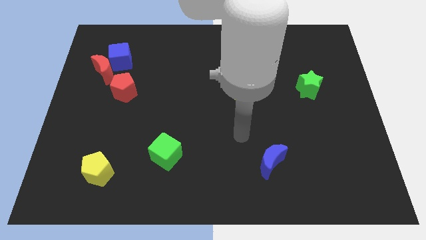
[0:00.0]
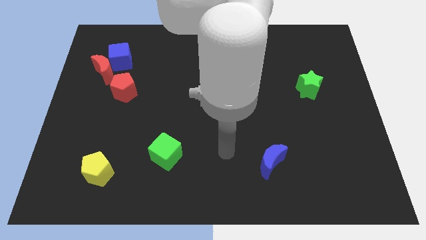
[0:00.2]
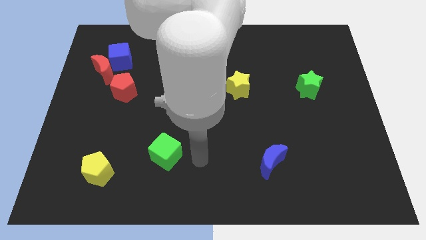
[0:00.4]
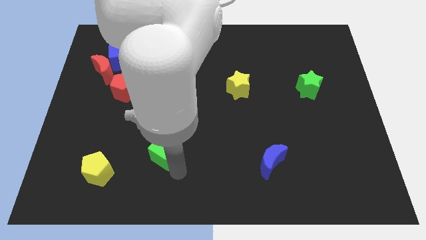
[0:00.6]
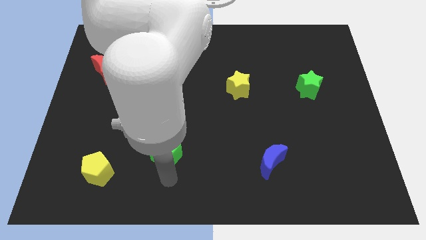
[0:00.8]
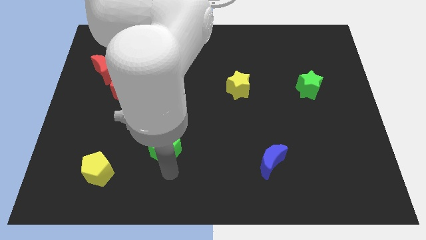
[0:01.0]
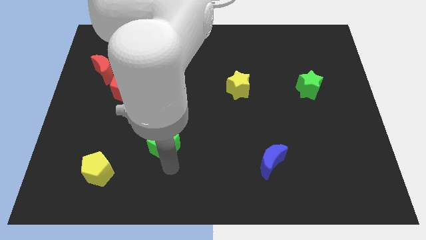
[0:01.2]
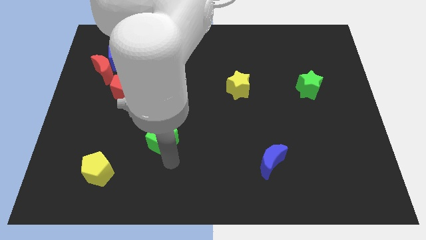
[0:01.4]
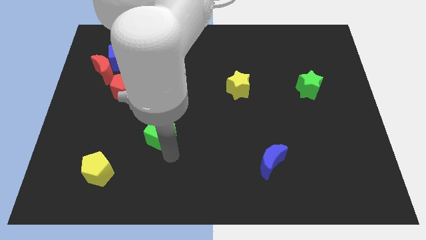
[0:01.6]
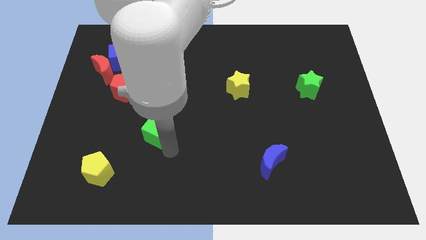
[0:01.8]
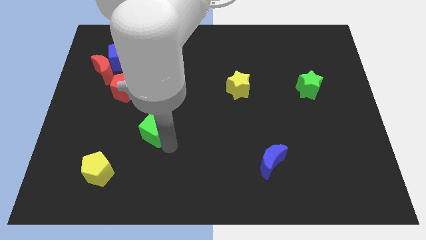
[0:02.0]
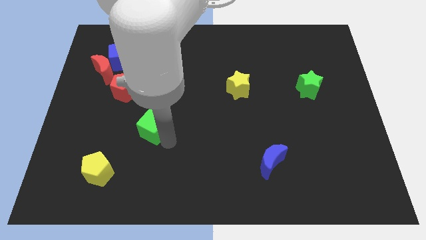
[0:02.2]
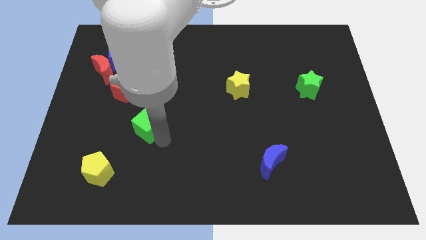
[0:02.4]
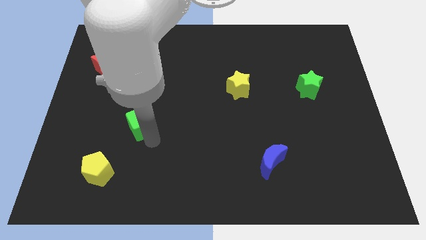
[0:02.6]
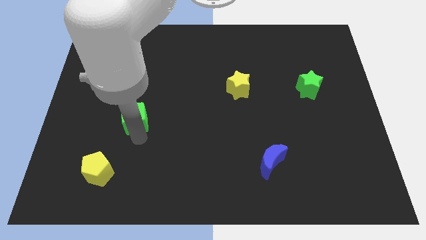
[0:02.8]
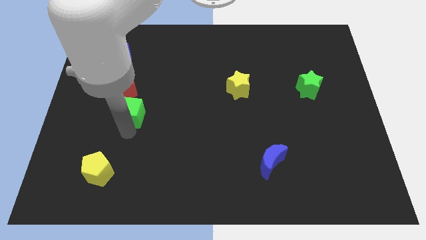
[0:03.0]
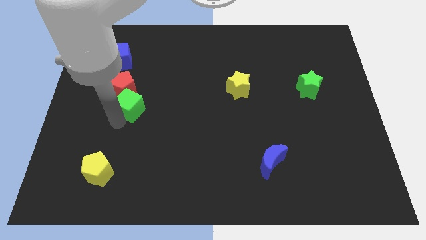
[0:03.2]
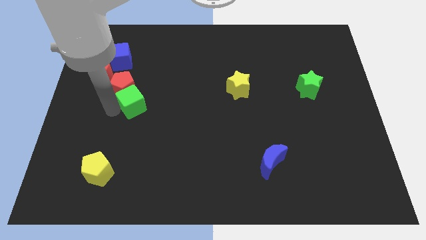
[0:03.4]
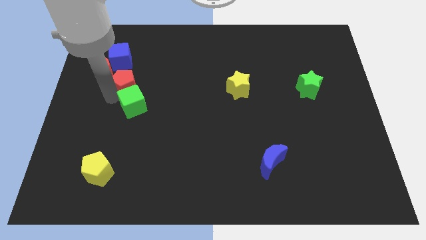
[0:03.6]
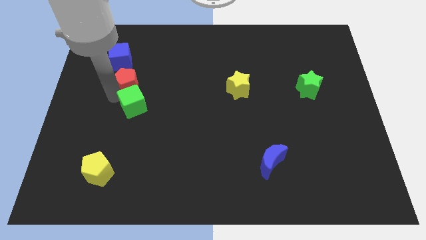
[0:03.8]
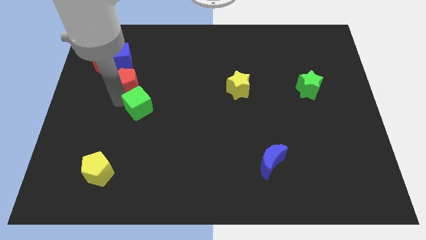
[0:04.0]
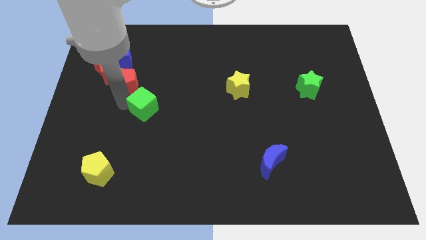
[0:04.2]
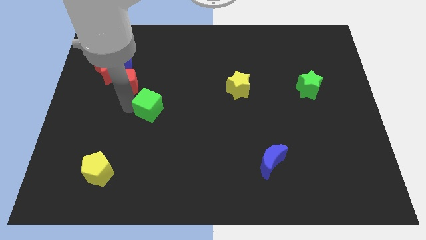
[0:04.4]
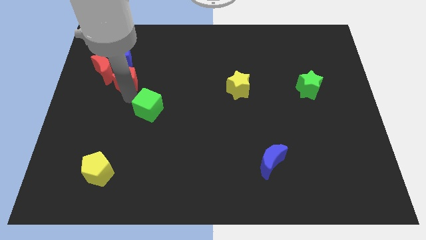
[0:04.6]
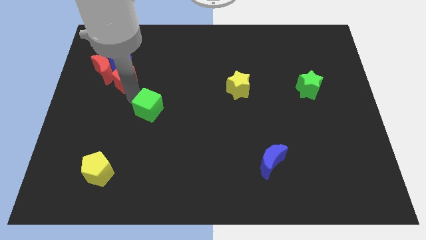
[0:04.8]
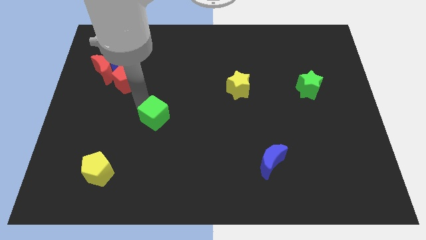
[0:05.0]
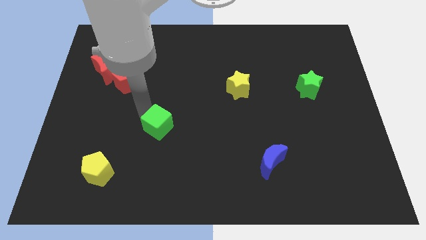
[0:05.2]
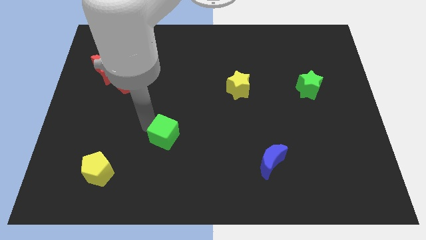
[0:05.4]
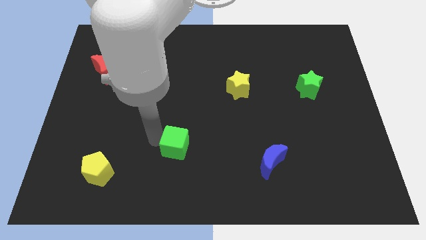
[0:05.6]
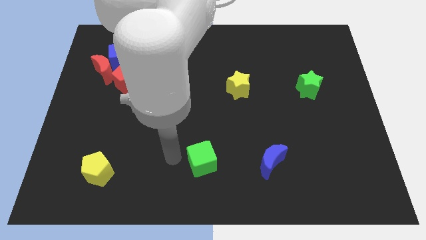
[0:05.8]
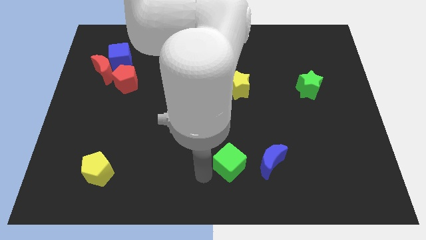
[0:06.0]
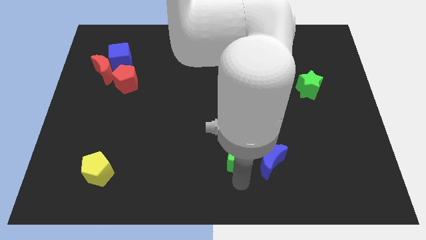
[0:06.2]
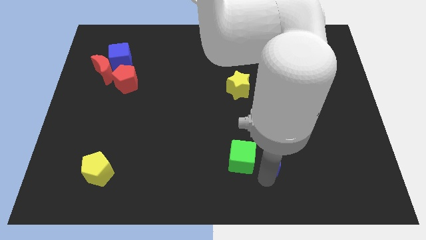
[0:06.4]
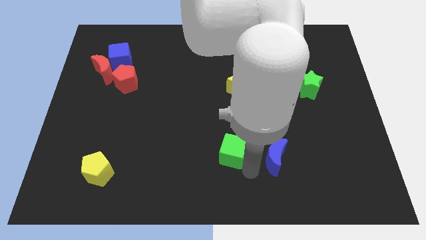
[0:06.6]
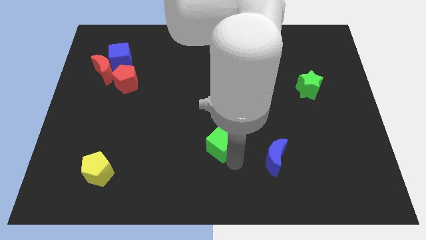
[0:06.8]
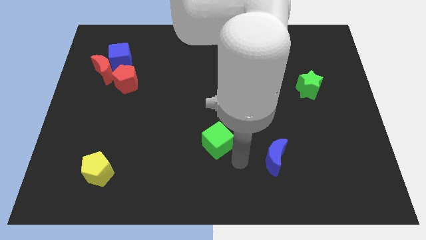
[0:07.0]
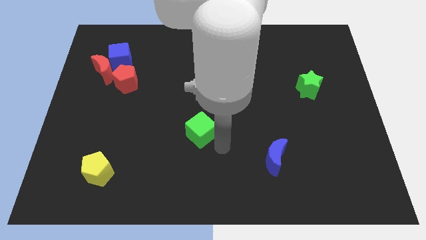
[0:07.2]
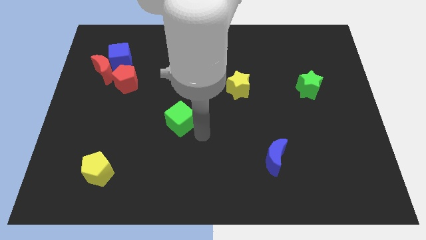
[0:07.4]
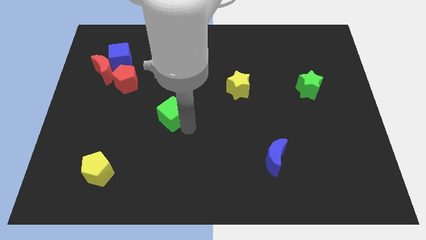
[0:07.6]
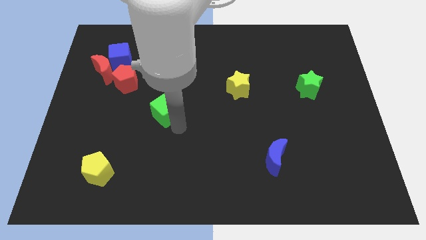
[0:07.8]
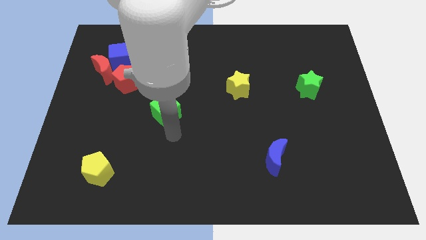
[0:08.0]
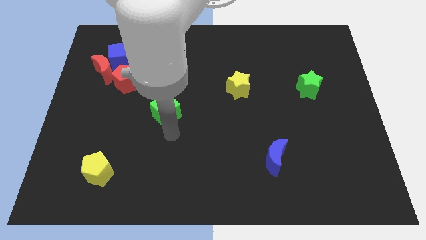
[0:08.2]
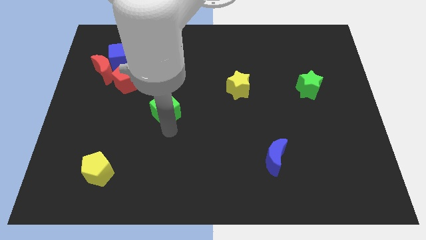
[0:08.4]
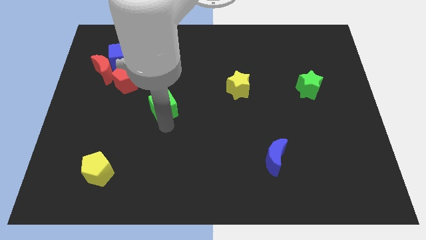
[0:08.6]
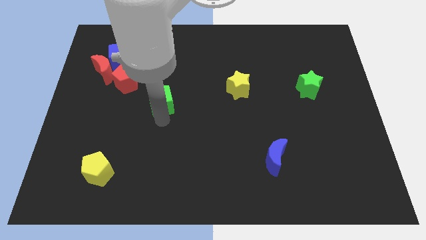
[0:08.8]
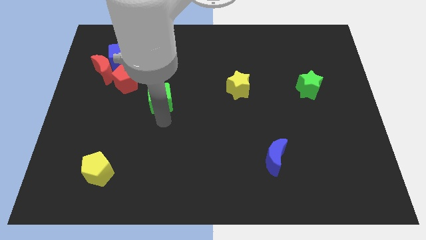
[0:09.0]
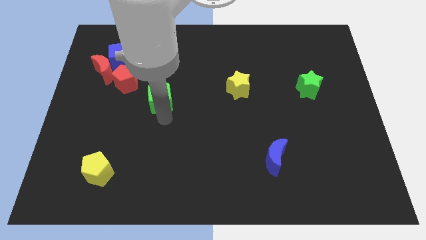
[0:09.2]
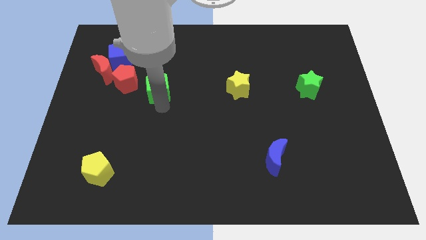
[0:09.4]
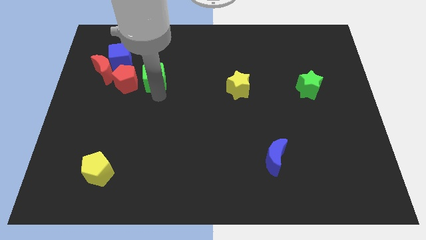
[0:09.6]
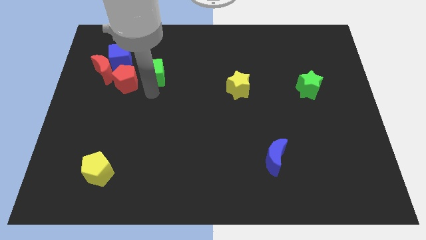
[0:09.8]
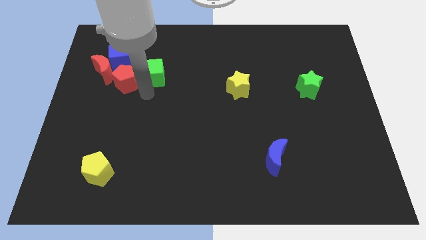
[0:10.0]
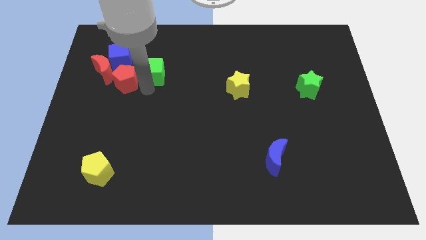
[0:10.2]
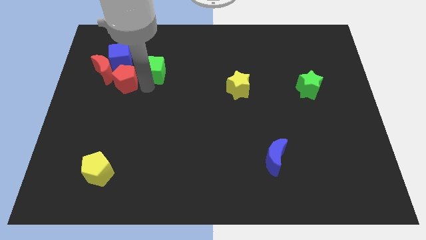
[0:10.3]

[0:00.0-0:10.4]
slide the green cube to the right side of the blue cube

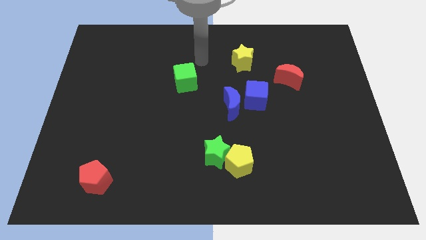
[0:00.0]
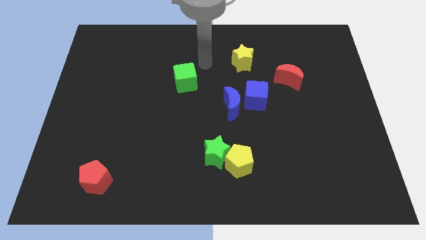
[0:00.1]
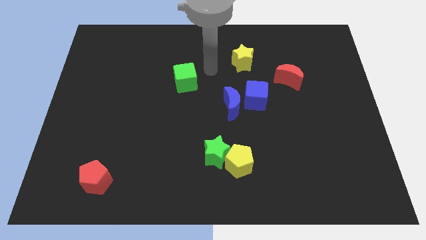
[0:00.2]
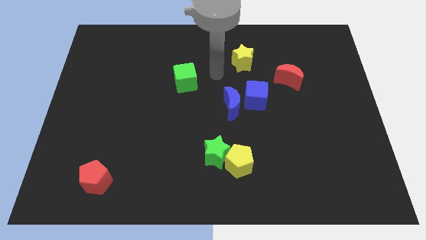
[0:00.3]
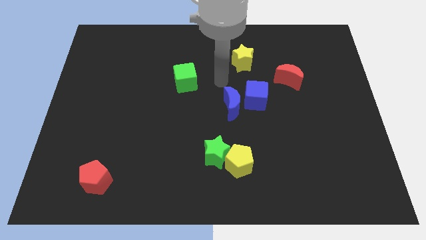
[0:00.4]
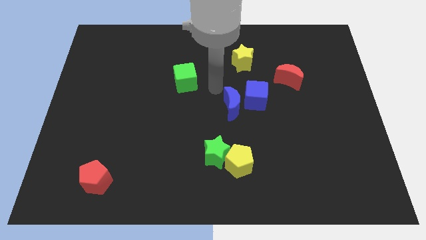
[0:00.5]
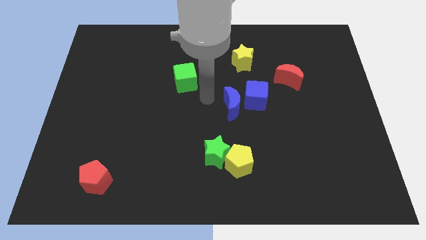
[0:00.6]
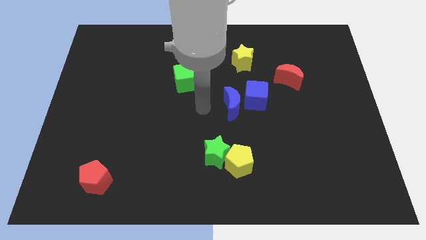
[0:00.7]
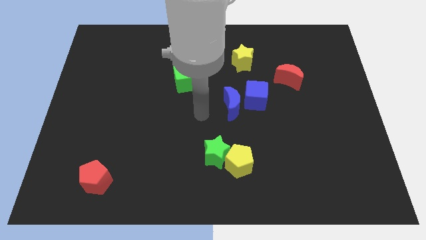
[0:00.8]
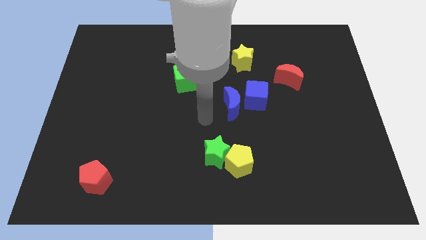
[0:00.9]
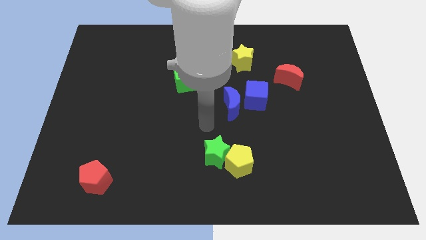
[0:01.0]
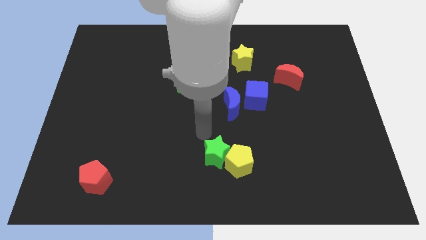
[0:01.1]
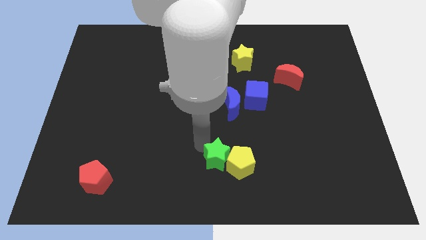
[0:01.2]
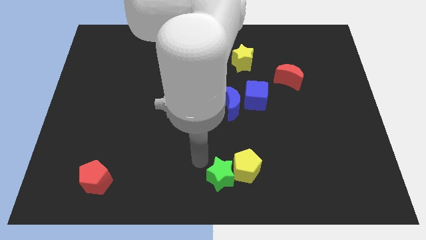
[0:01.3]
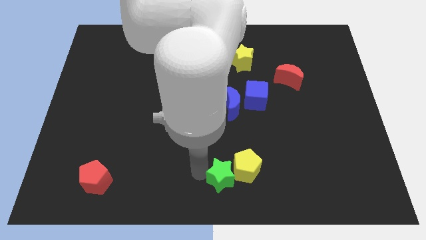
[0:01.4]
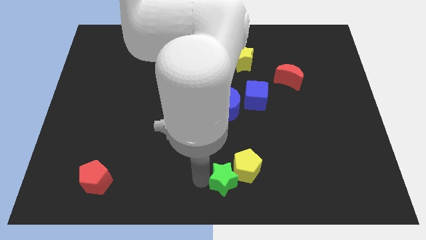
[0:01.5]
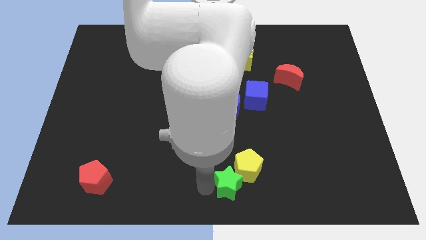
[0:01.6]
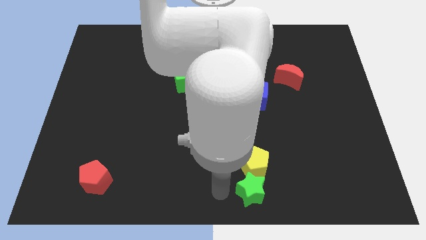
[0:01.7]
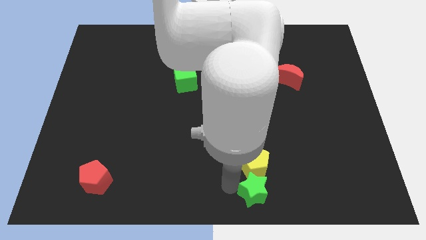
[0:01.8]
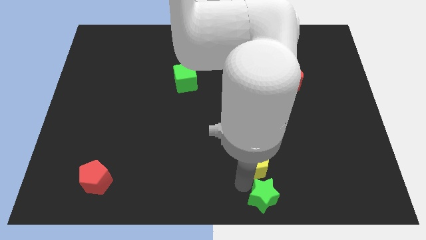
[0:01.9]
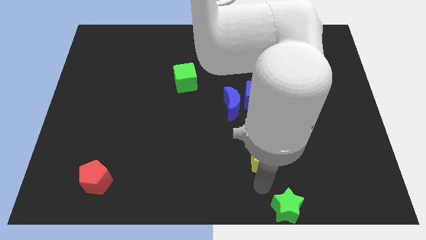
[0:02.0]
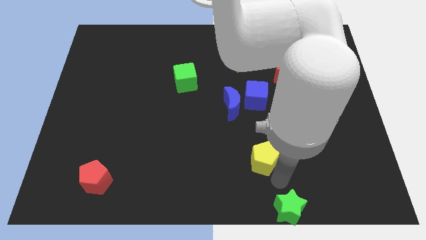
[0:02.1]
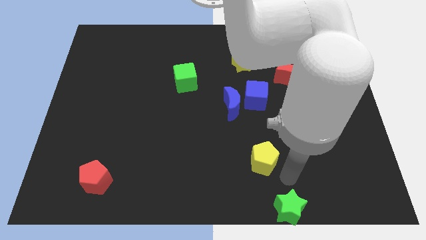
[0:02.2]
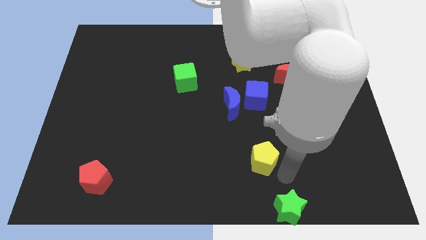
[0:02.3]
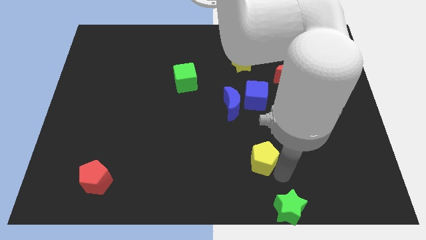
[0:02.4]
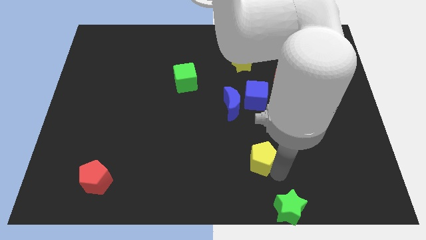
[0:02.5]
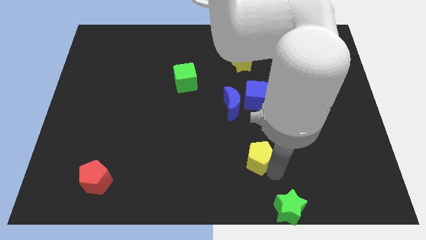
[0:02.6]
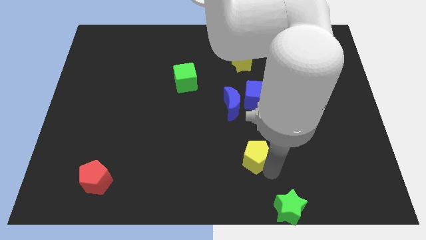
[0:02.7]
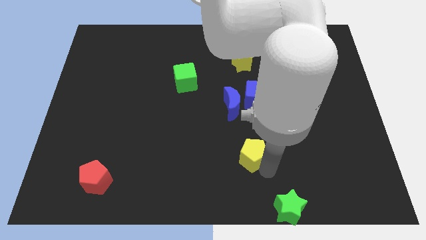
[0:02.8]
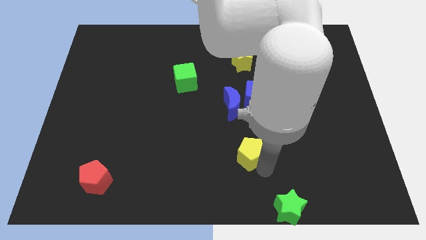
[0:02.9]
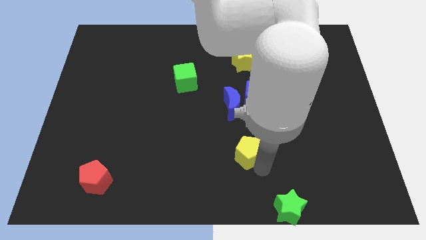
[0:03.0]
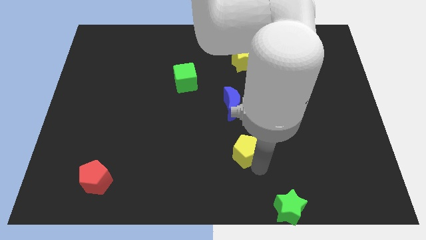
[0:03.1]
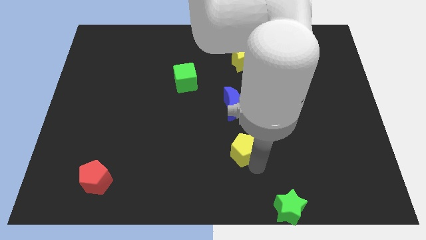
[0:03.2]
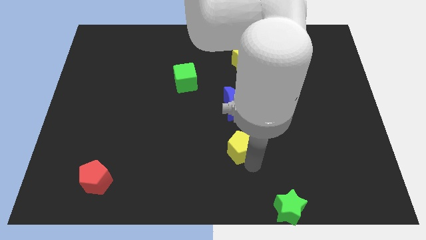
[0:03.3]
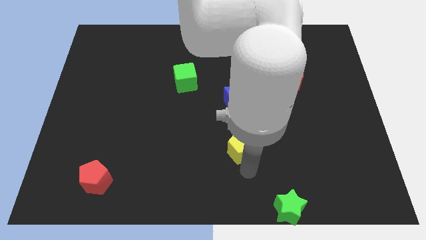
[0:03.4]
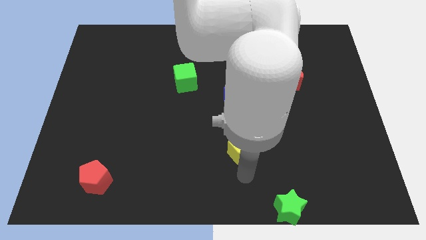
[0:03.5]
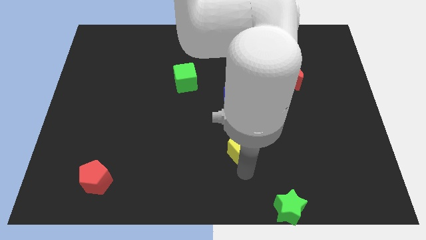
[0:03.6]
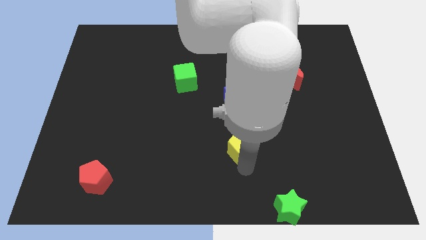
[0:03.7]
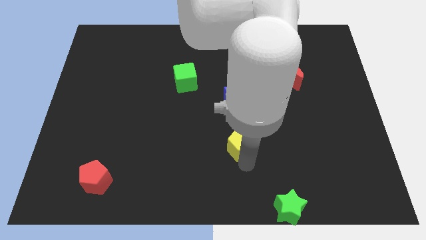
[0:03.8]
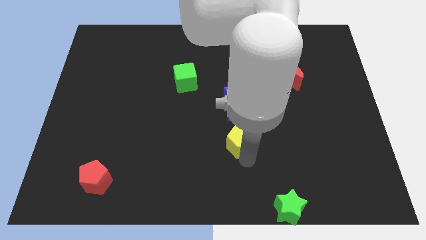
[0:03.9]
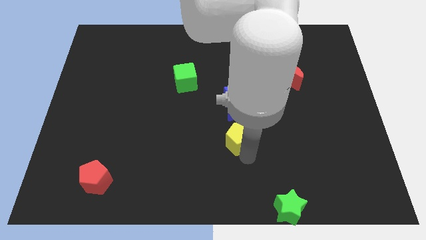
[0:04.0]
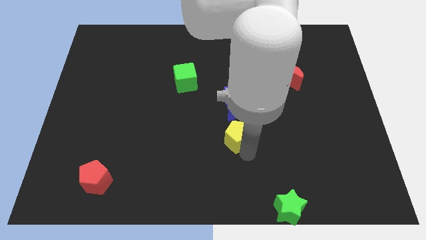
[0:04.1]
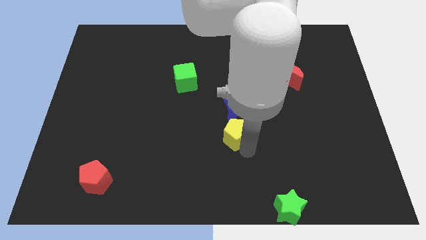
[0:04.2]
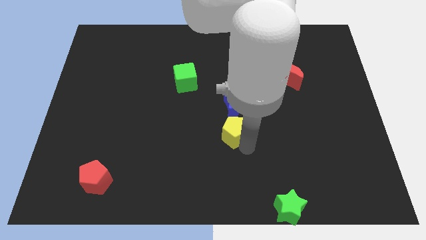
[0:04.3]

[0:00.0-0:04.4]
move the yellow pentagon diagonally down and to the left of the blue cube
